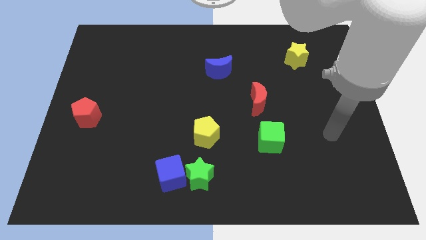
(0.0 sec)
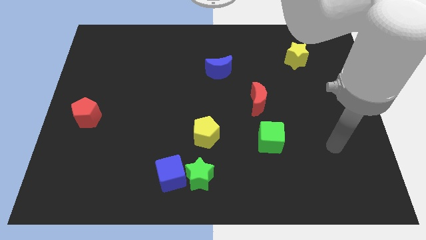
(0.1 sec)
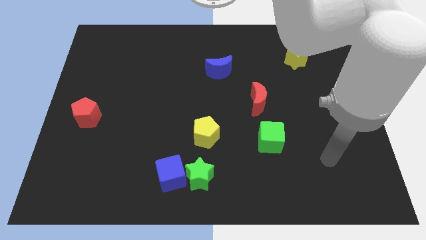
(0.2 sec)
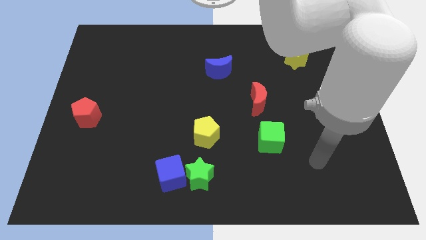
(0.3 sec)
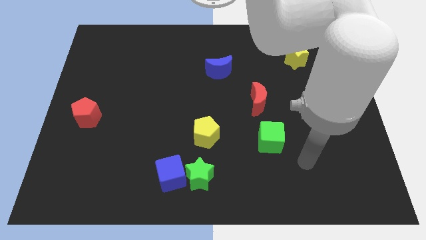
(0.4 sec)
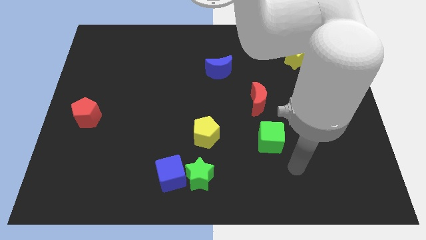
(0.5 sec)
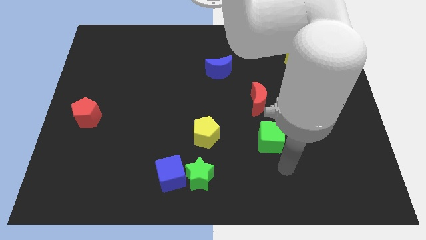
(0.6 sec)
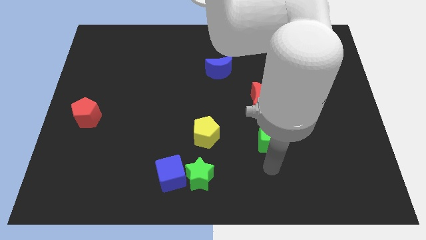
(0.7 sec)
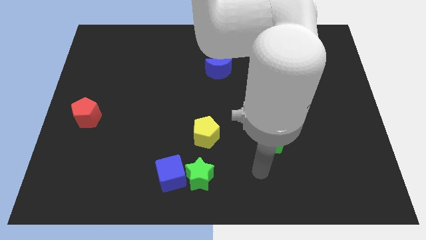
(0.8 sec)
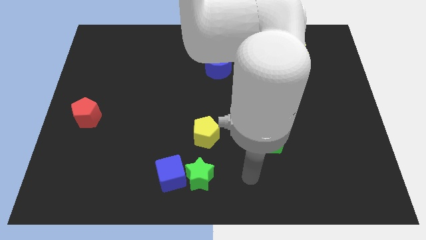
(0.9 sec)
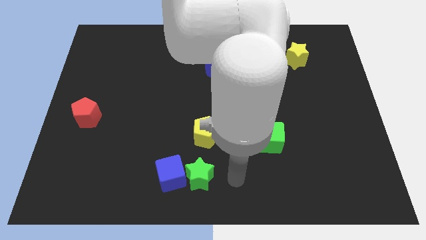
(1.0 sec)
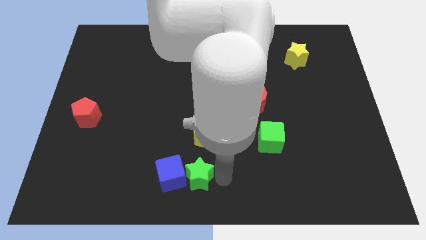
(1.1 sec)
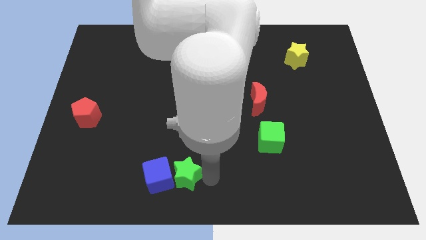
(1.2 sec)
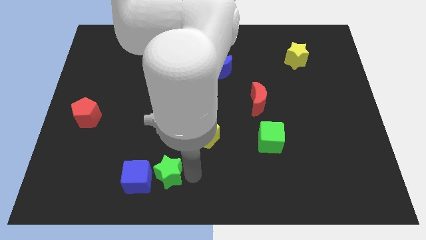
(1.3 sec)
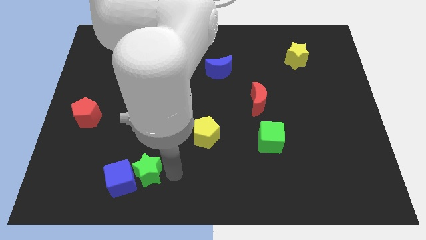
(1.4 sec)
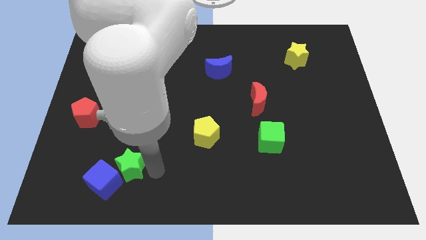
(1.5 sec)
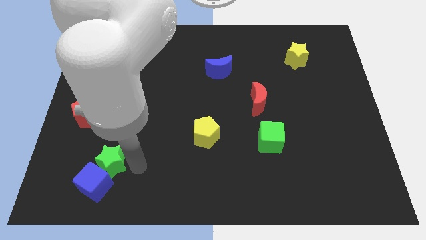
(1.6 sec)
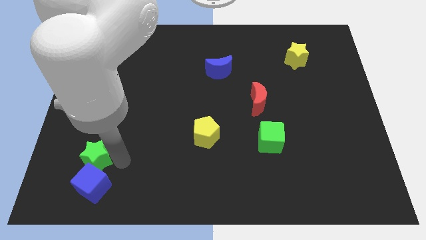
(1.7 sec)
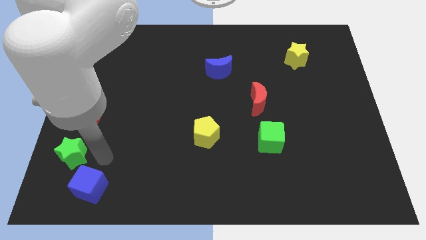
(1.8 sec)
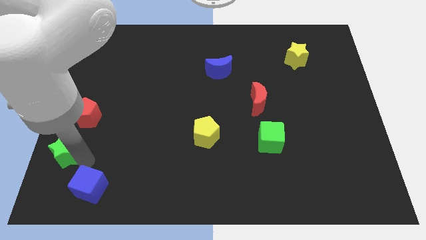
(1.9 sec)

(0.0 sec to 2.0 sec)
move the blue cube away from the green star

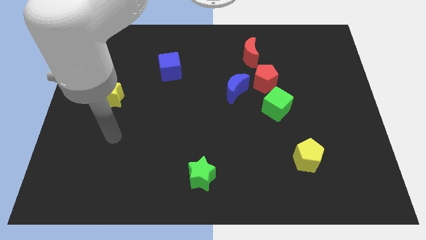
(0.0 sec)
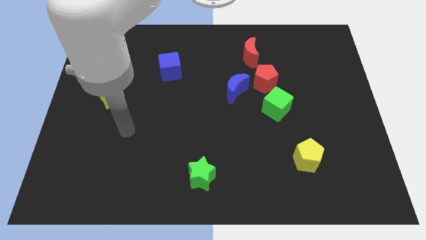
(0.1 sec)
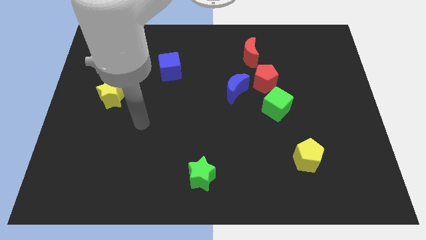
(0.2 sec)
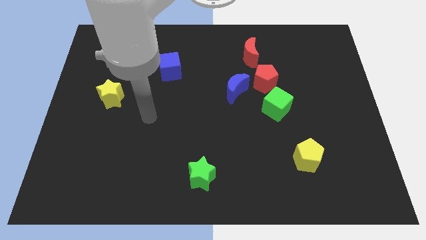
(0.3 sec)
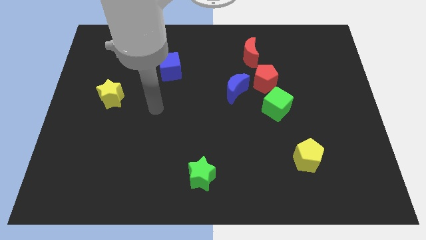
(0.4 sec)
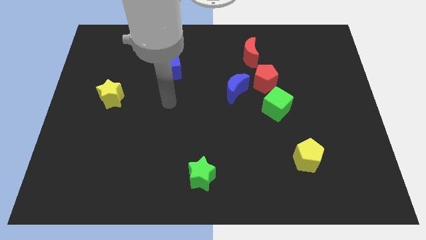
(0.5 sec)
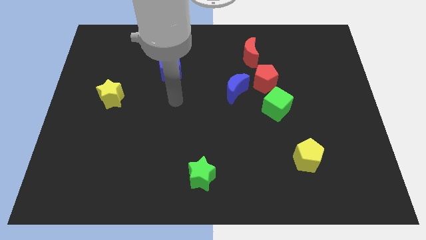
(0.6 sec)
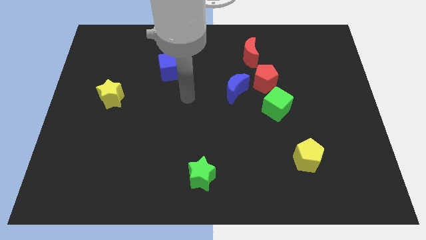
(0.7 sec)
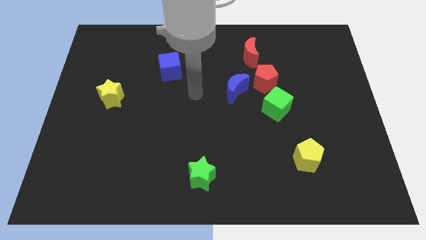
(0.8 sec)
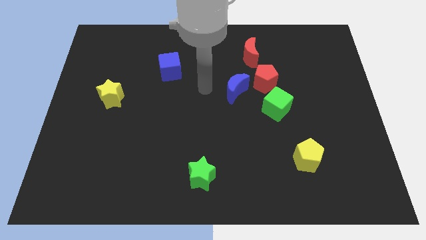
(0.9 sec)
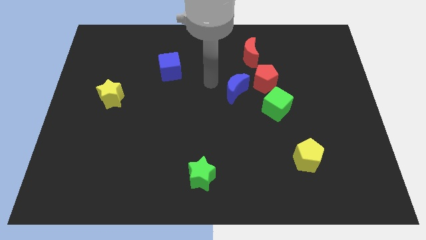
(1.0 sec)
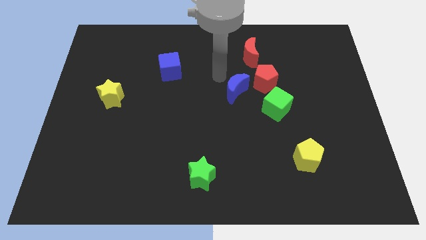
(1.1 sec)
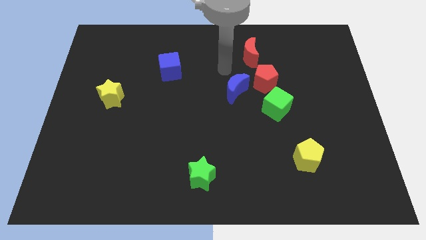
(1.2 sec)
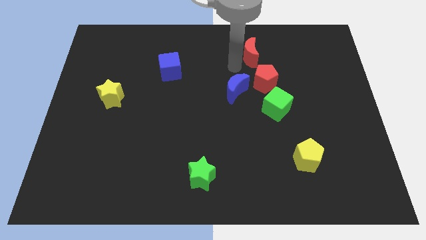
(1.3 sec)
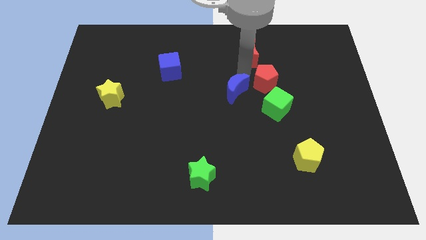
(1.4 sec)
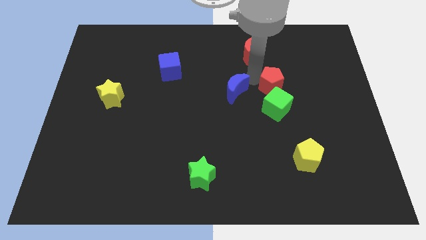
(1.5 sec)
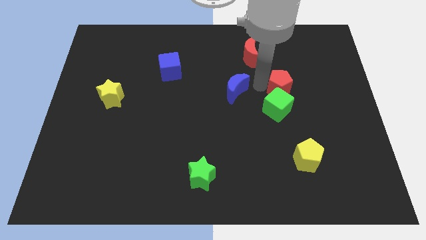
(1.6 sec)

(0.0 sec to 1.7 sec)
move the blue moon away from the red pentagon

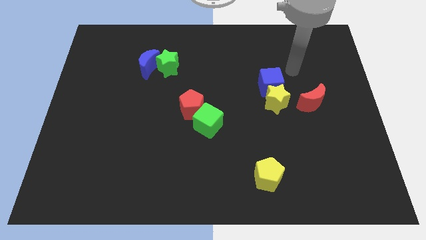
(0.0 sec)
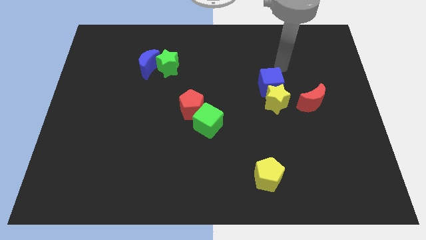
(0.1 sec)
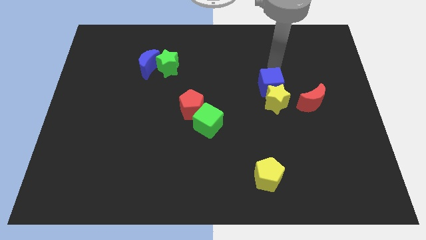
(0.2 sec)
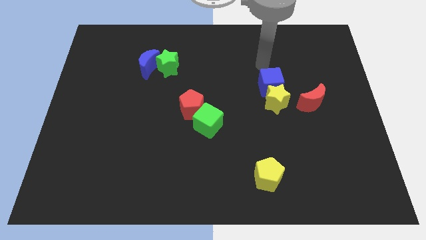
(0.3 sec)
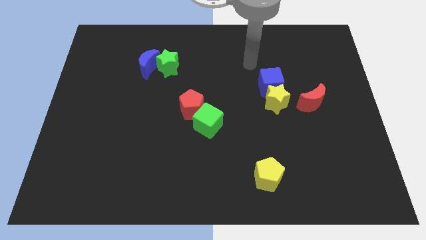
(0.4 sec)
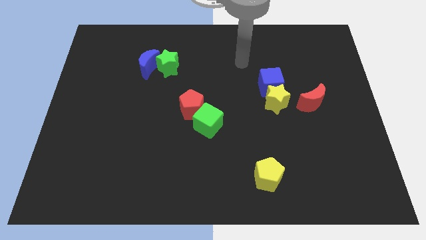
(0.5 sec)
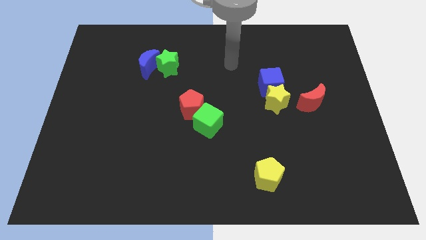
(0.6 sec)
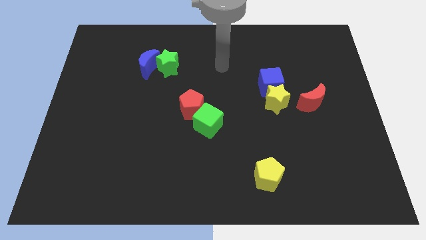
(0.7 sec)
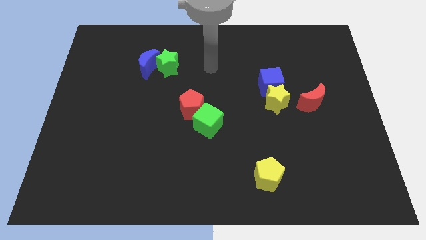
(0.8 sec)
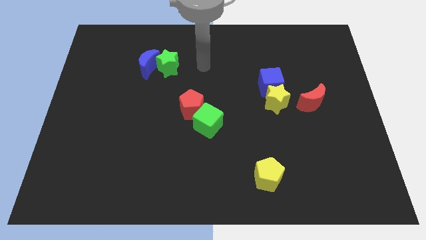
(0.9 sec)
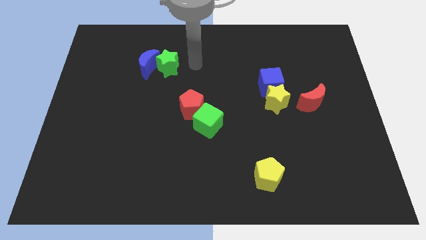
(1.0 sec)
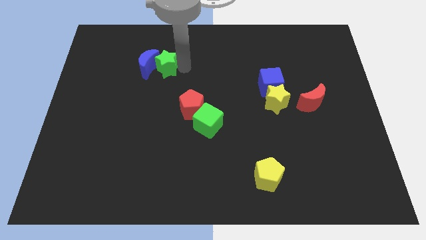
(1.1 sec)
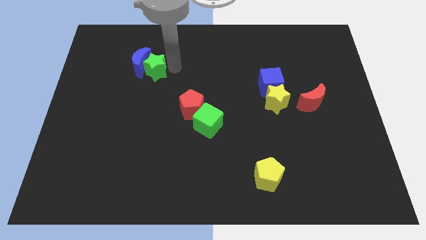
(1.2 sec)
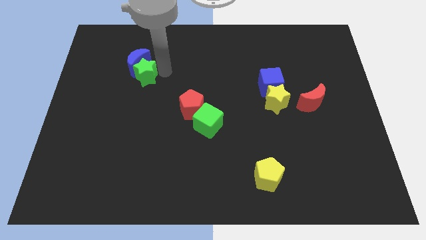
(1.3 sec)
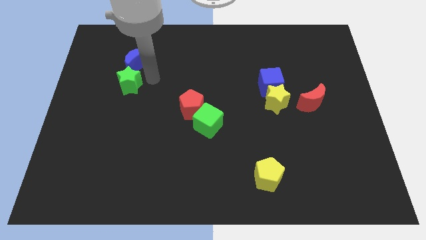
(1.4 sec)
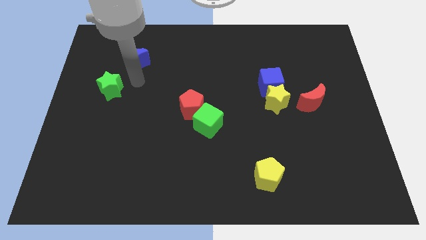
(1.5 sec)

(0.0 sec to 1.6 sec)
move the blue moon away from the green star

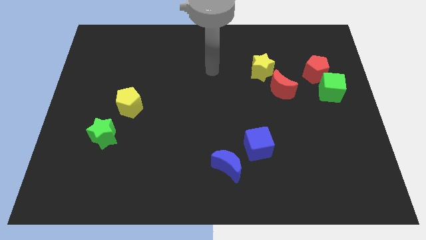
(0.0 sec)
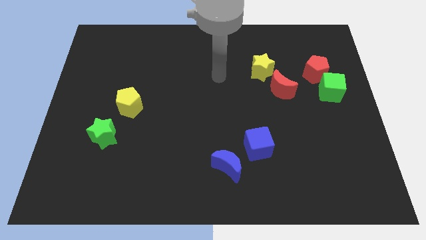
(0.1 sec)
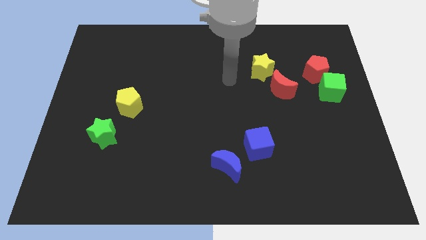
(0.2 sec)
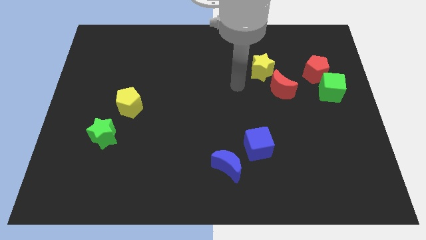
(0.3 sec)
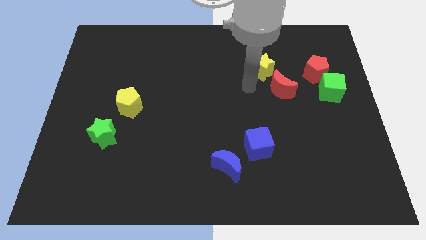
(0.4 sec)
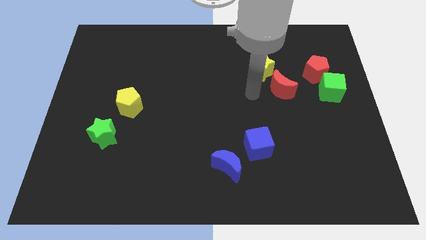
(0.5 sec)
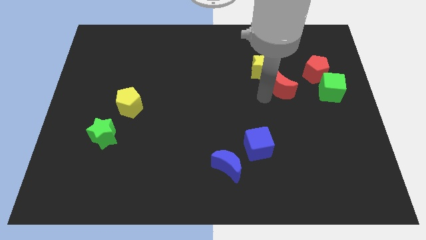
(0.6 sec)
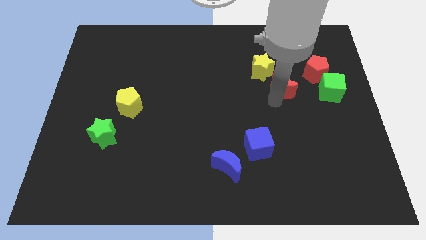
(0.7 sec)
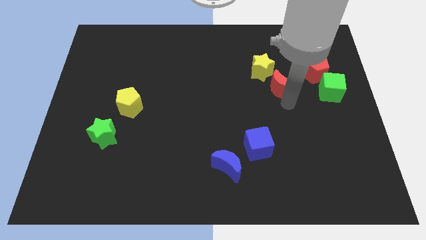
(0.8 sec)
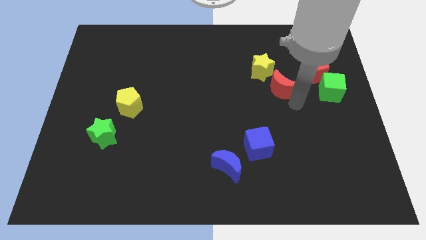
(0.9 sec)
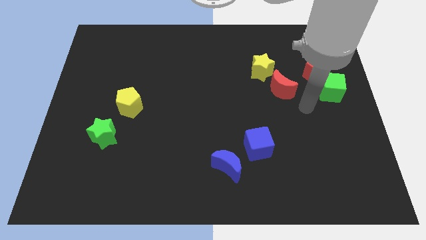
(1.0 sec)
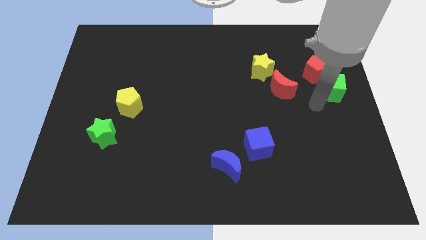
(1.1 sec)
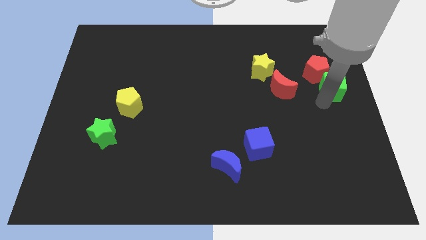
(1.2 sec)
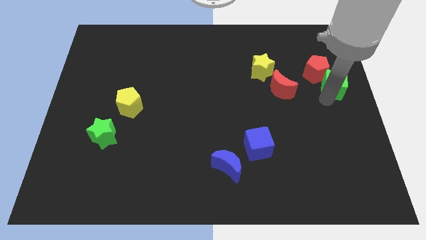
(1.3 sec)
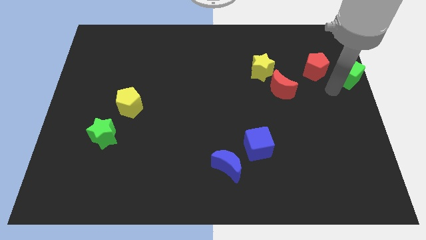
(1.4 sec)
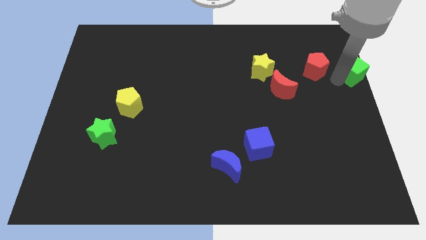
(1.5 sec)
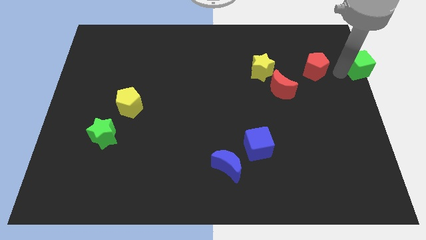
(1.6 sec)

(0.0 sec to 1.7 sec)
move the red pentagon away from the green cube

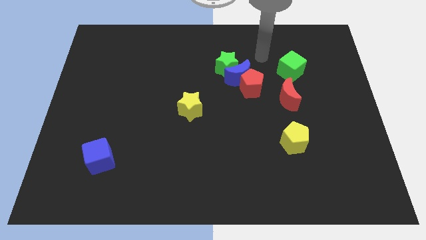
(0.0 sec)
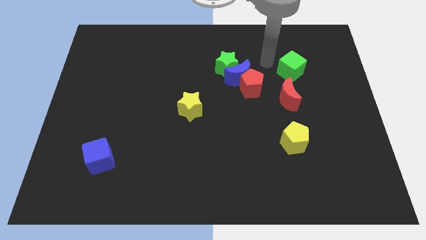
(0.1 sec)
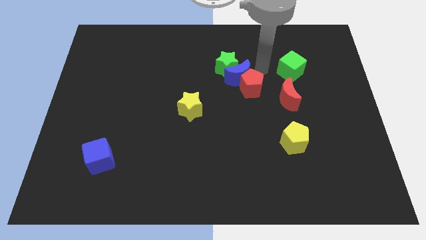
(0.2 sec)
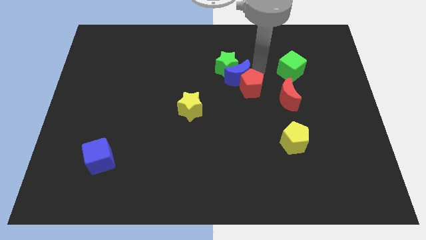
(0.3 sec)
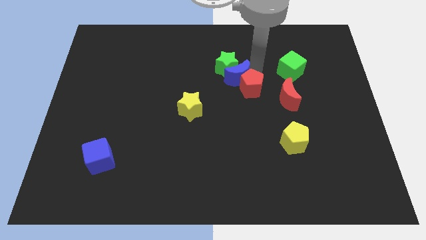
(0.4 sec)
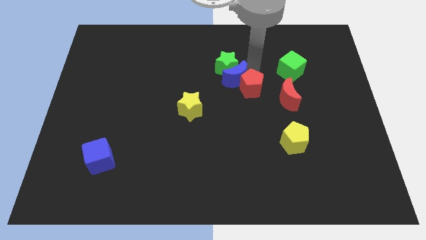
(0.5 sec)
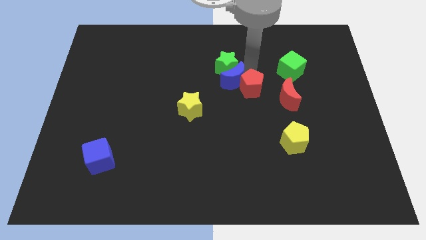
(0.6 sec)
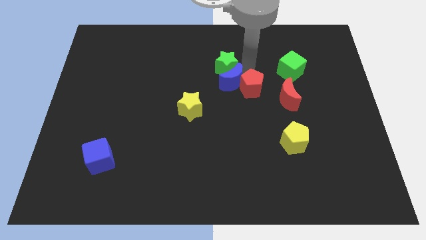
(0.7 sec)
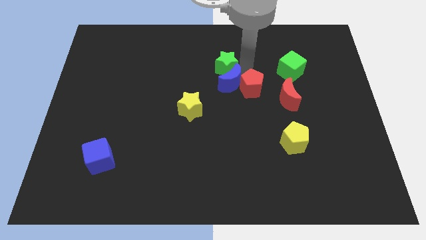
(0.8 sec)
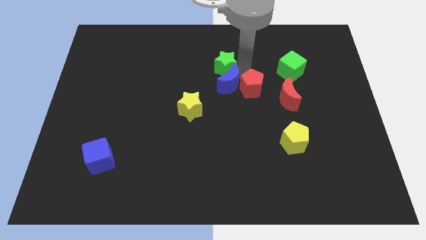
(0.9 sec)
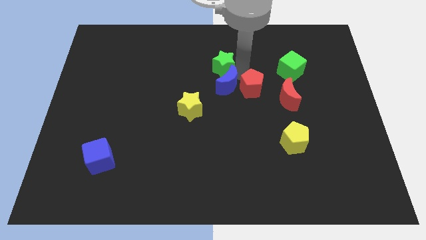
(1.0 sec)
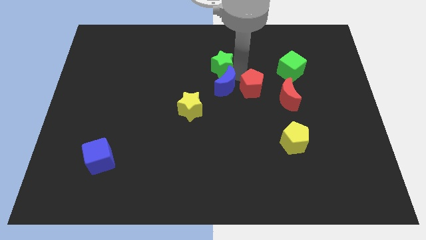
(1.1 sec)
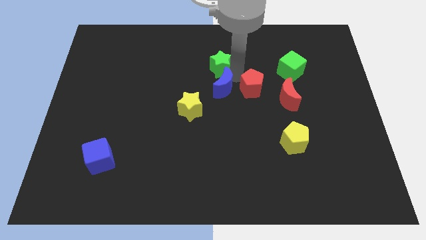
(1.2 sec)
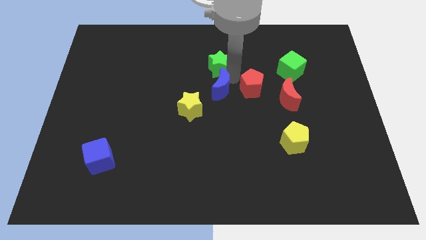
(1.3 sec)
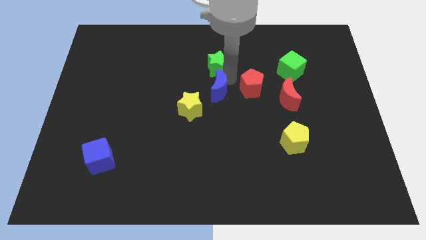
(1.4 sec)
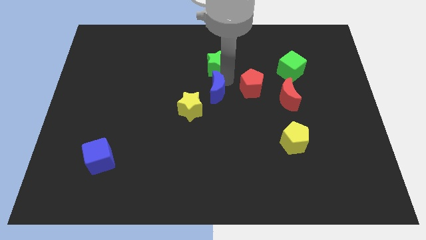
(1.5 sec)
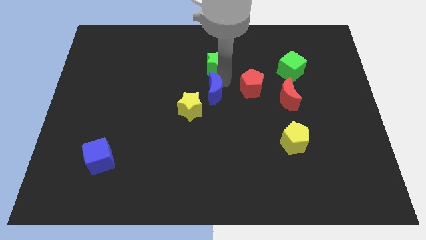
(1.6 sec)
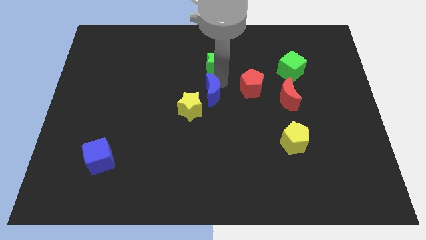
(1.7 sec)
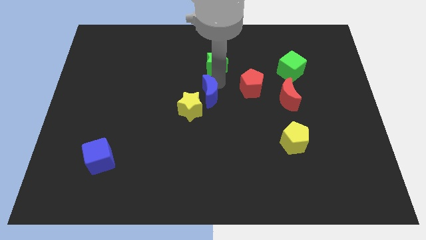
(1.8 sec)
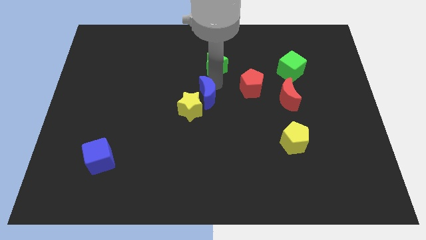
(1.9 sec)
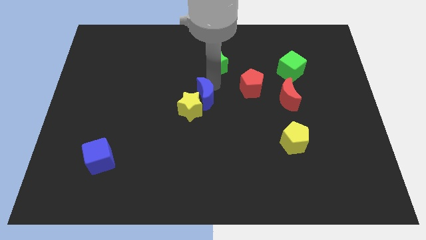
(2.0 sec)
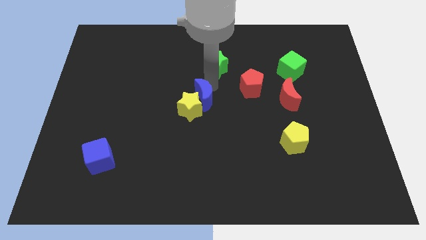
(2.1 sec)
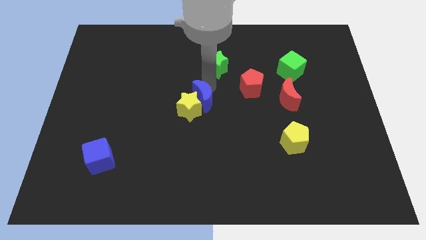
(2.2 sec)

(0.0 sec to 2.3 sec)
separate the blue moon from the green star and red pentagon
